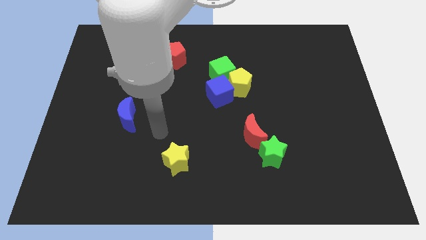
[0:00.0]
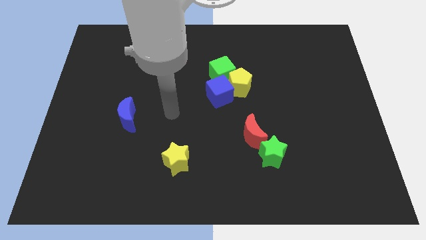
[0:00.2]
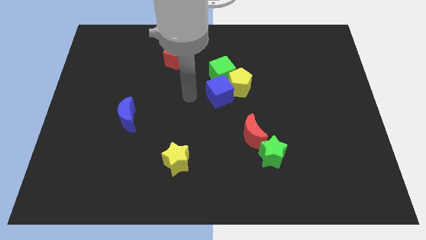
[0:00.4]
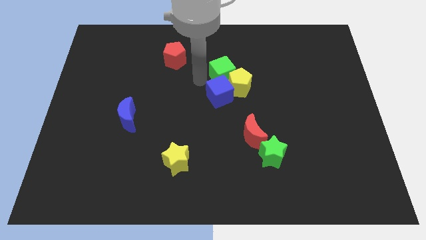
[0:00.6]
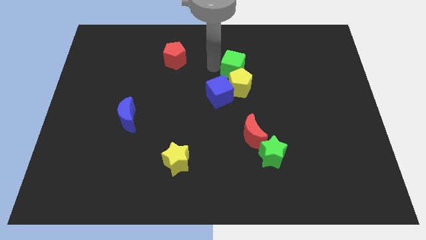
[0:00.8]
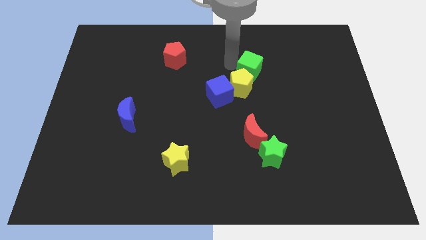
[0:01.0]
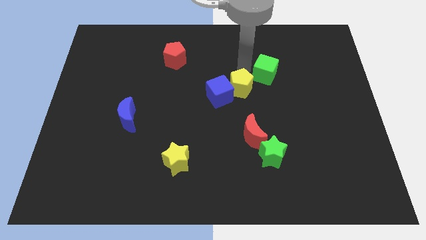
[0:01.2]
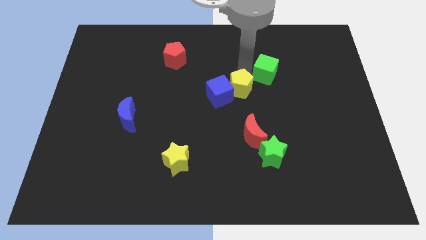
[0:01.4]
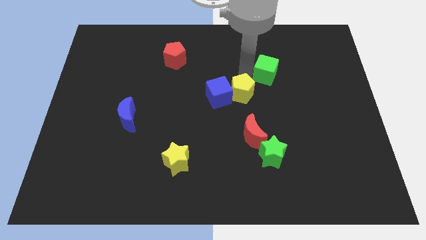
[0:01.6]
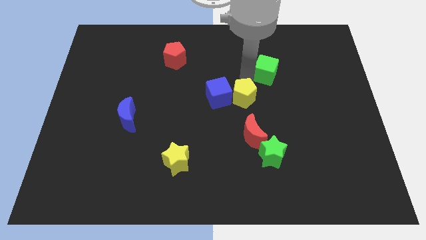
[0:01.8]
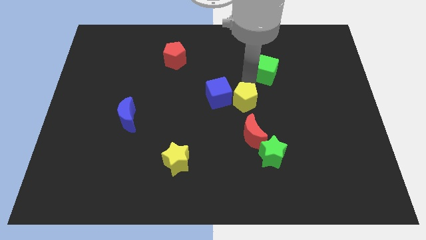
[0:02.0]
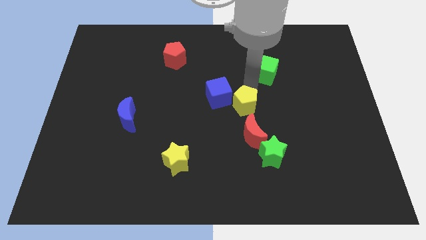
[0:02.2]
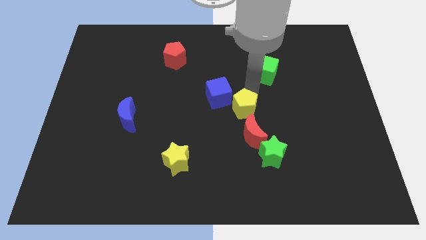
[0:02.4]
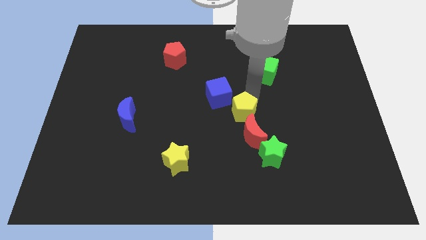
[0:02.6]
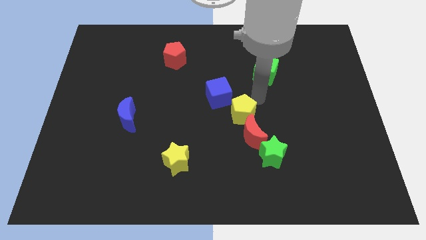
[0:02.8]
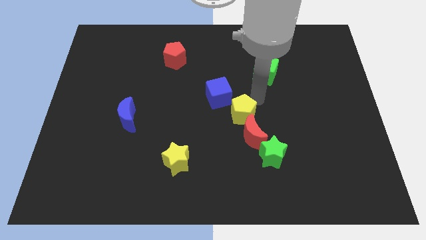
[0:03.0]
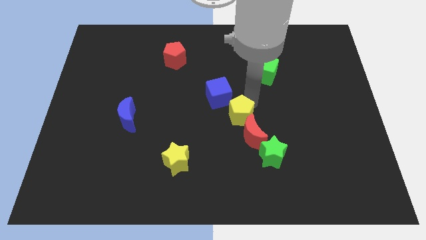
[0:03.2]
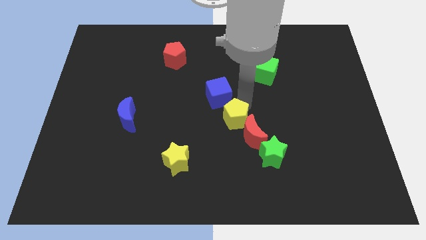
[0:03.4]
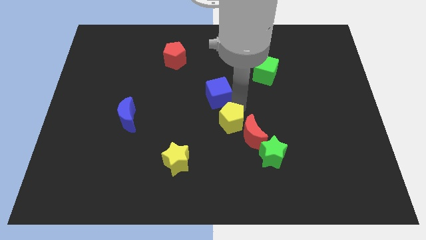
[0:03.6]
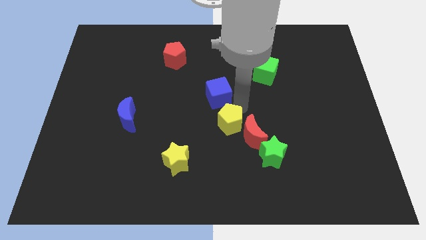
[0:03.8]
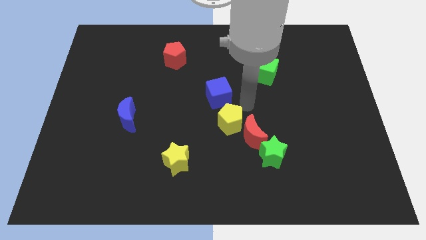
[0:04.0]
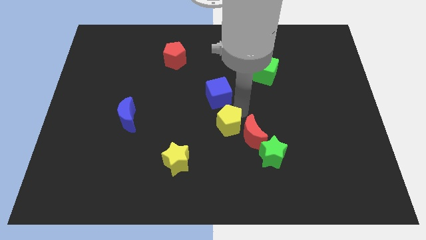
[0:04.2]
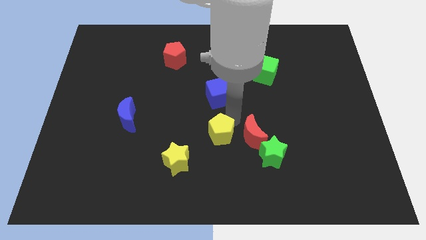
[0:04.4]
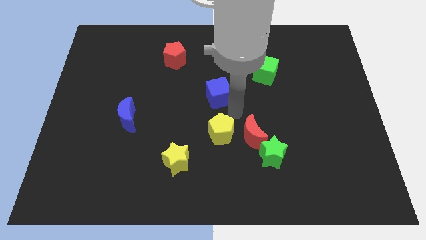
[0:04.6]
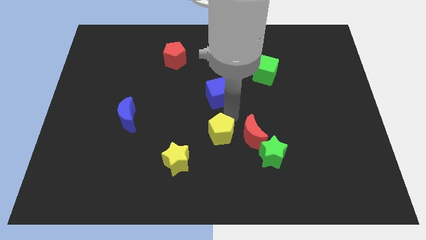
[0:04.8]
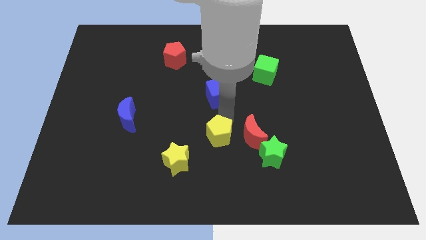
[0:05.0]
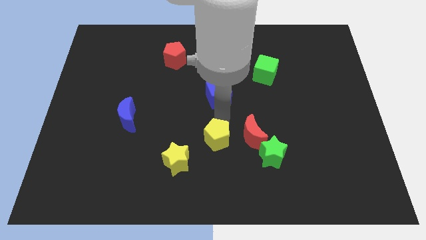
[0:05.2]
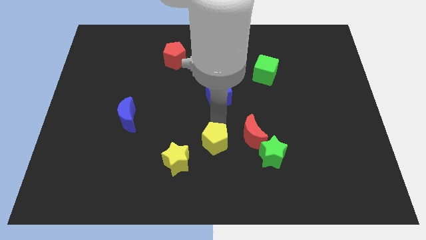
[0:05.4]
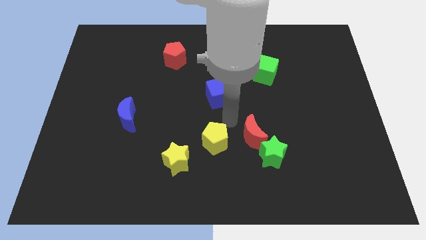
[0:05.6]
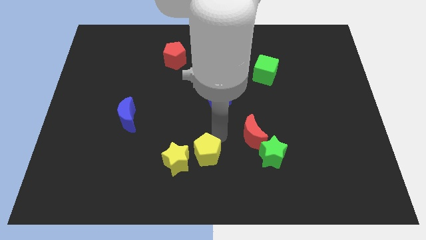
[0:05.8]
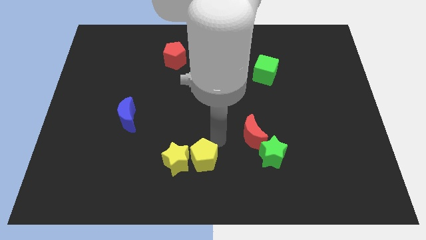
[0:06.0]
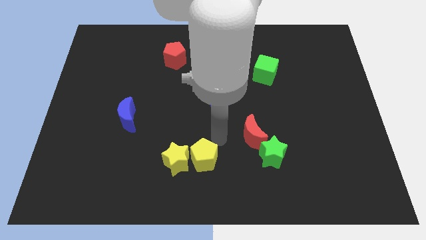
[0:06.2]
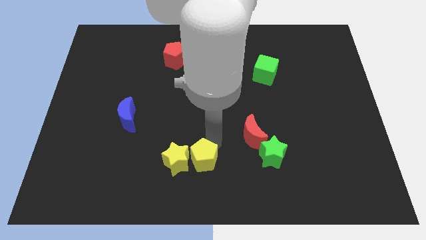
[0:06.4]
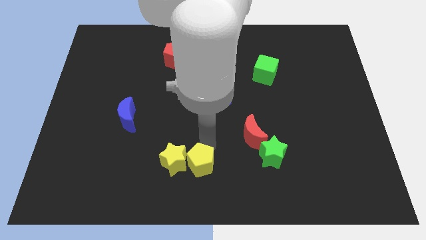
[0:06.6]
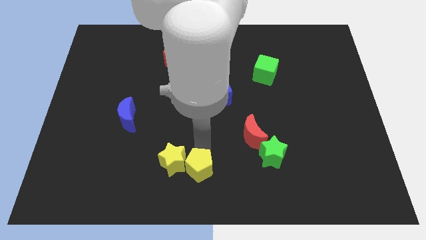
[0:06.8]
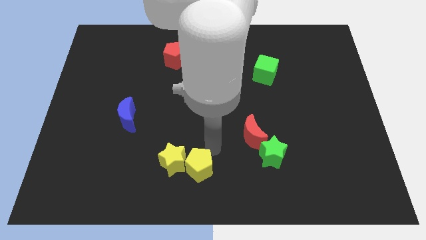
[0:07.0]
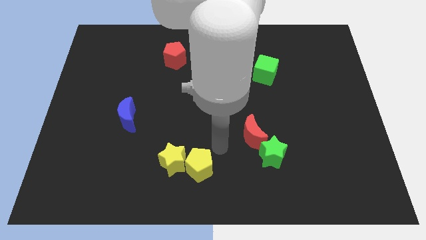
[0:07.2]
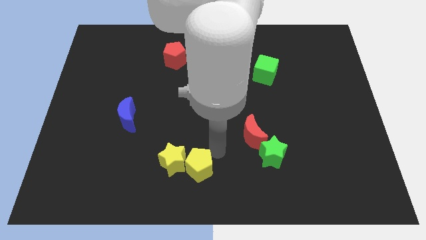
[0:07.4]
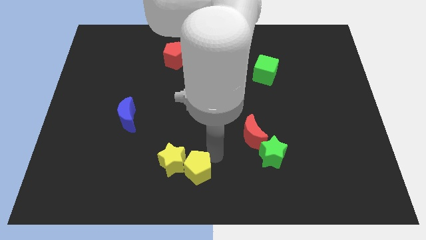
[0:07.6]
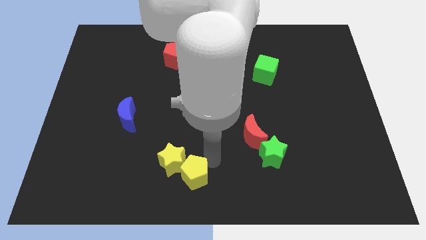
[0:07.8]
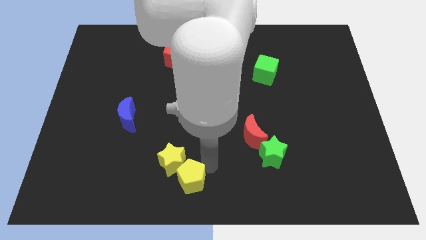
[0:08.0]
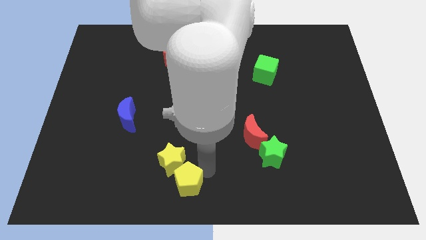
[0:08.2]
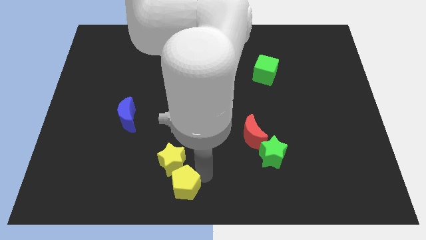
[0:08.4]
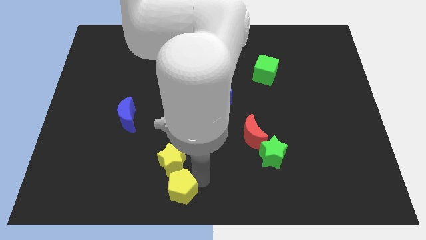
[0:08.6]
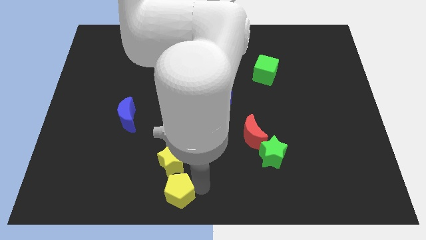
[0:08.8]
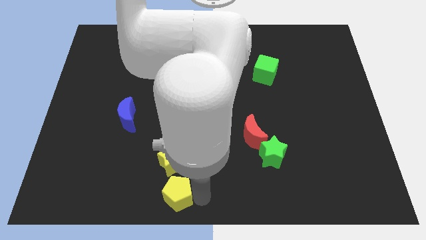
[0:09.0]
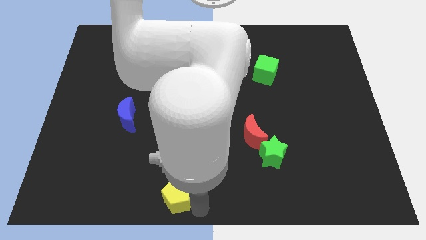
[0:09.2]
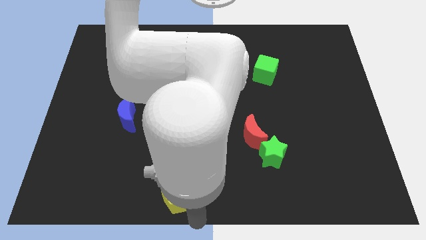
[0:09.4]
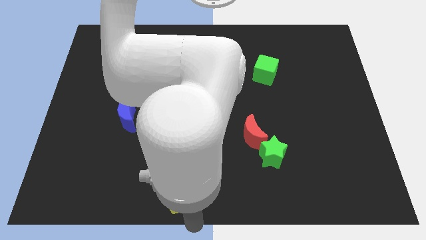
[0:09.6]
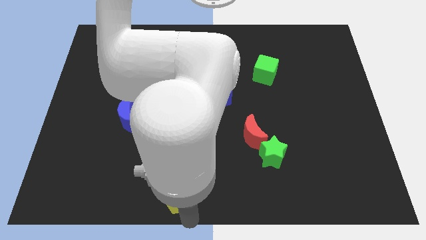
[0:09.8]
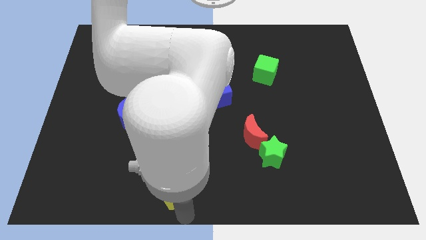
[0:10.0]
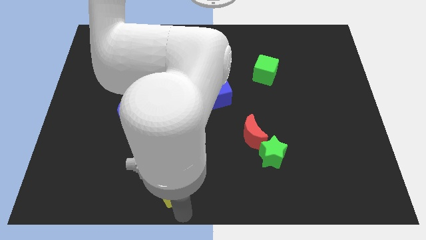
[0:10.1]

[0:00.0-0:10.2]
push the yellow pentagon to the bottom left of the yellow star

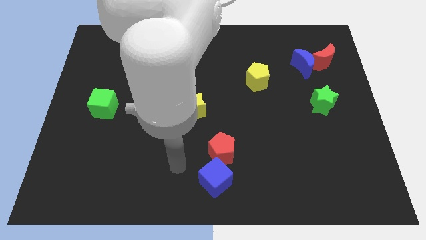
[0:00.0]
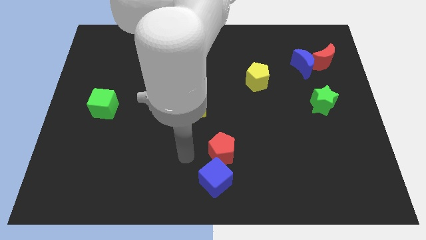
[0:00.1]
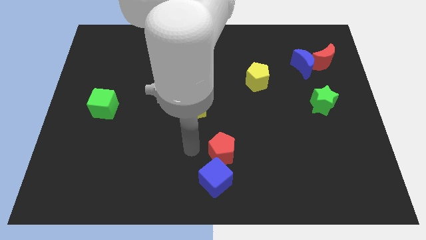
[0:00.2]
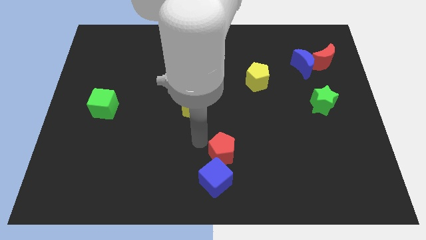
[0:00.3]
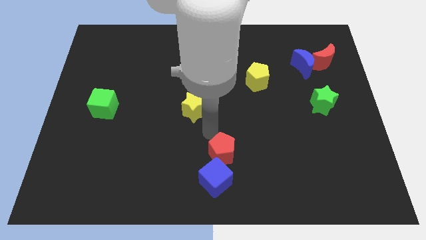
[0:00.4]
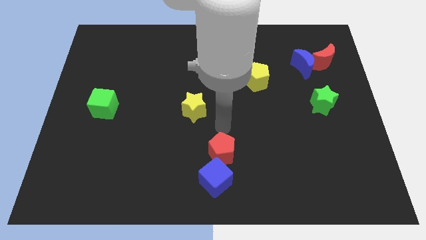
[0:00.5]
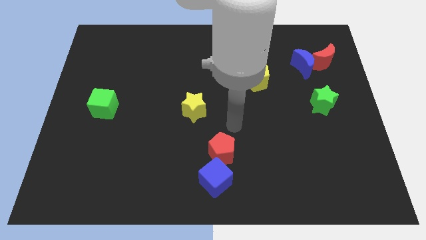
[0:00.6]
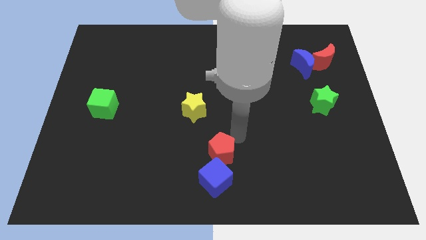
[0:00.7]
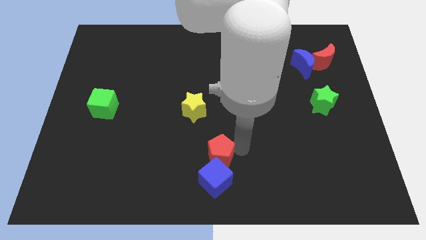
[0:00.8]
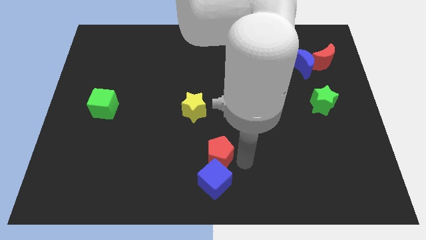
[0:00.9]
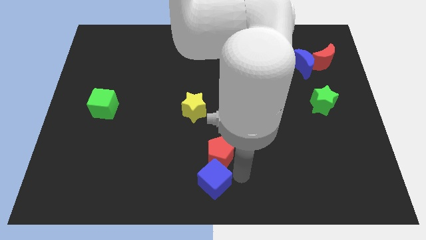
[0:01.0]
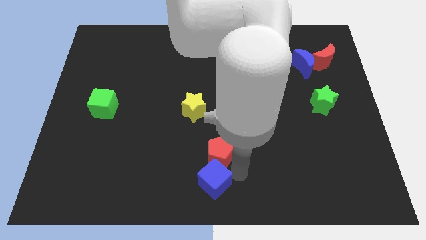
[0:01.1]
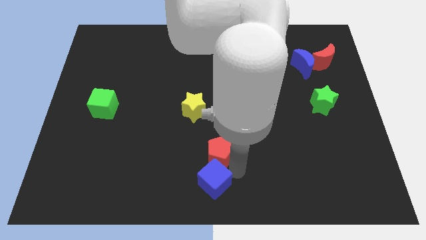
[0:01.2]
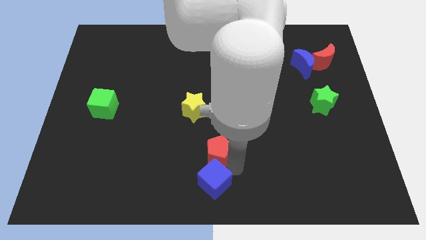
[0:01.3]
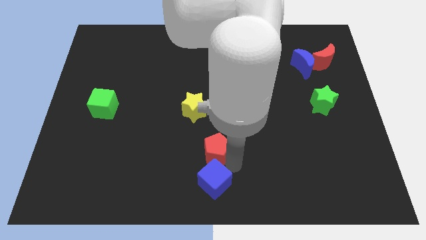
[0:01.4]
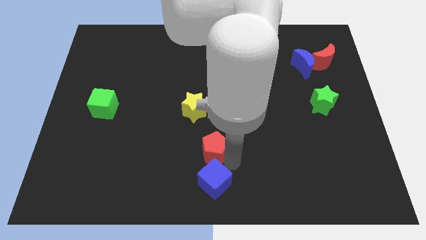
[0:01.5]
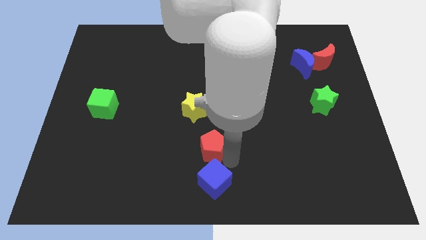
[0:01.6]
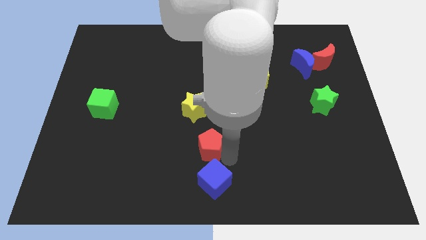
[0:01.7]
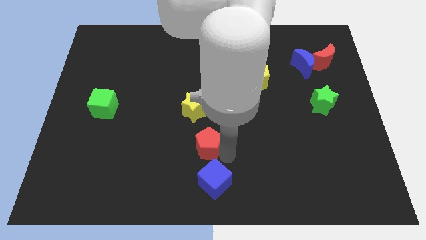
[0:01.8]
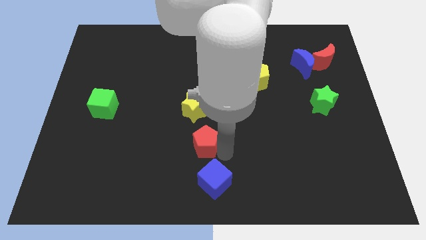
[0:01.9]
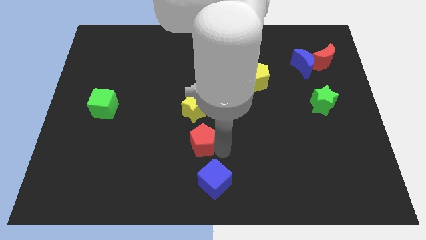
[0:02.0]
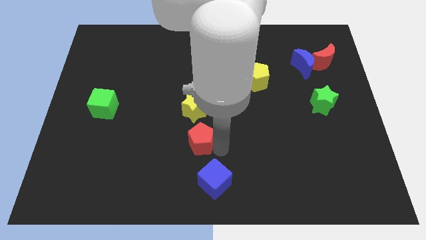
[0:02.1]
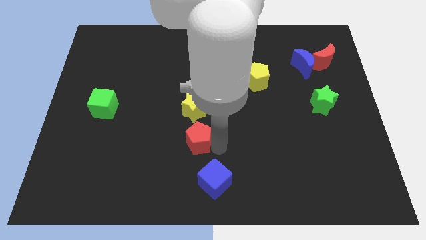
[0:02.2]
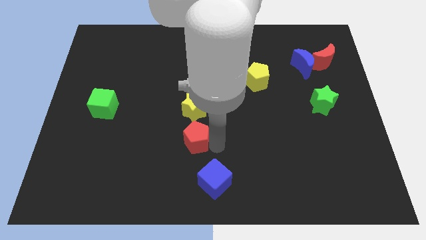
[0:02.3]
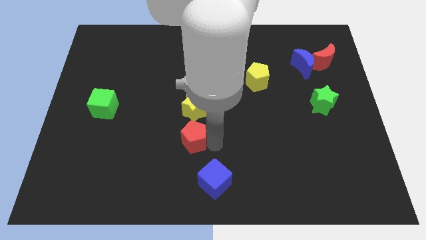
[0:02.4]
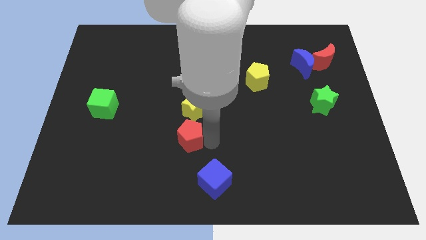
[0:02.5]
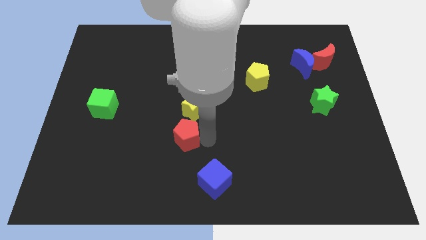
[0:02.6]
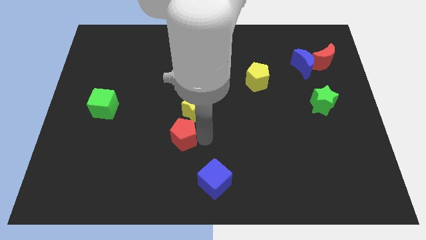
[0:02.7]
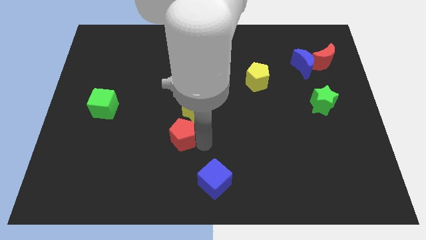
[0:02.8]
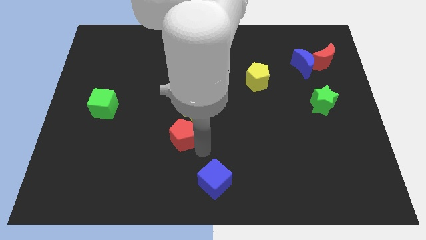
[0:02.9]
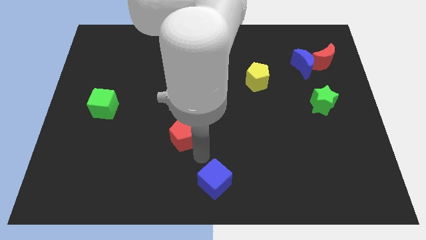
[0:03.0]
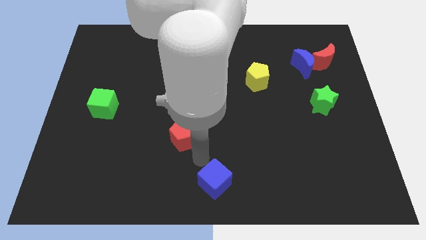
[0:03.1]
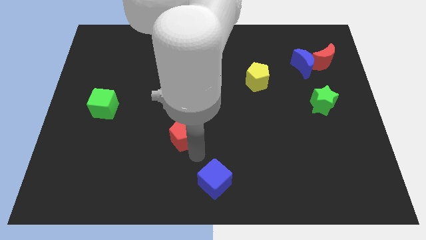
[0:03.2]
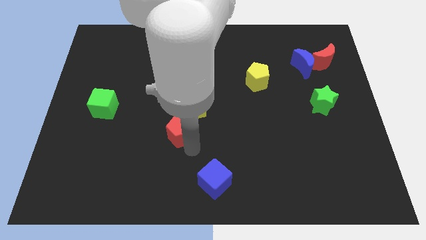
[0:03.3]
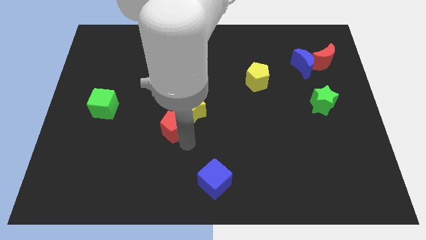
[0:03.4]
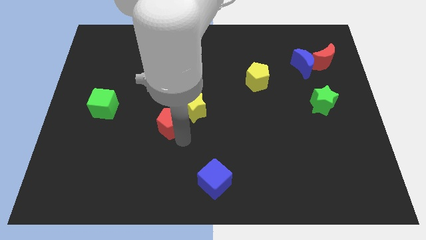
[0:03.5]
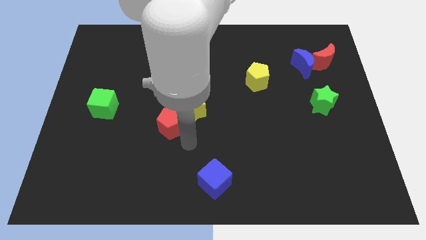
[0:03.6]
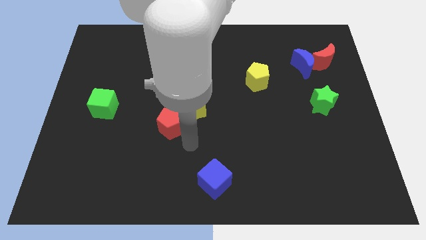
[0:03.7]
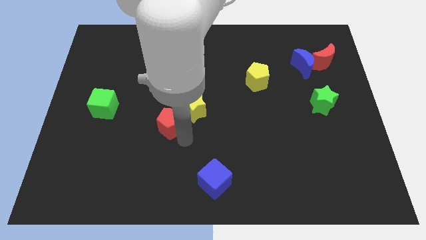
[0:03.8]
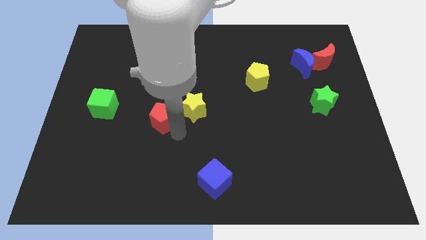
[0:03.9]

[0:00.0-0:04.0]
push the red pentagon right of the green cube
